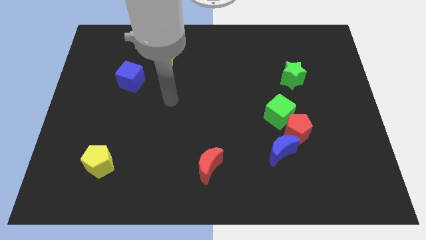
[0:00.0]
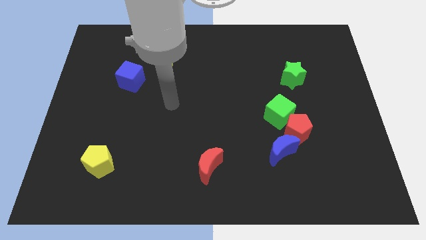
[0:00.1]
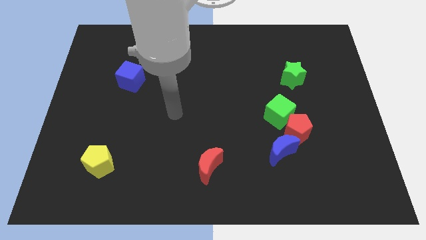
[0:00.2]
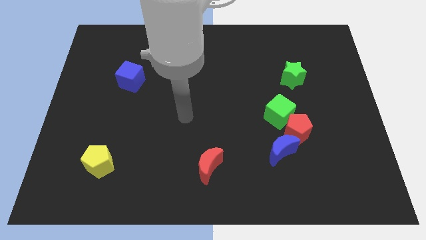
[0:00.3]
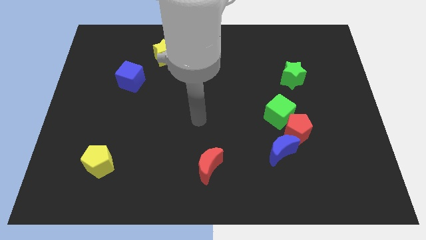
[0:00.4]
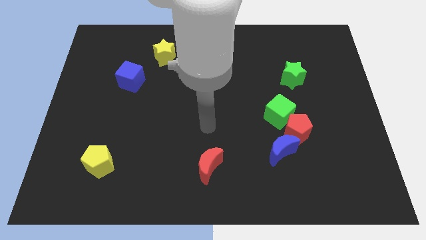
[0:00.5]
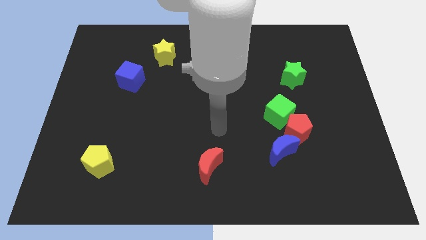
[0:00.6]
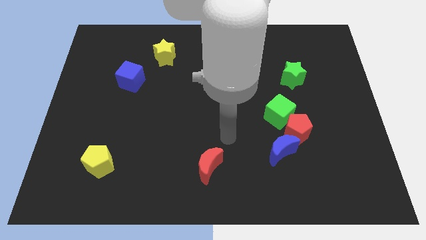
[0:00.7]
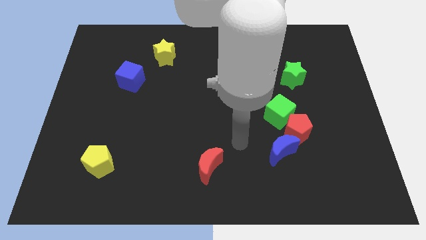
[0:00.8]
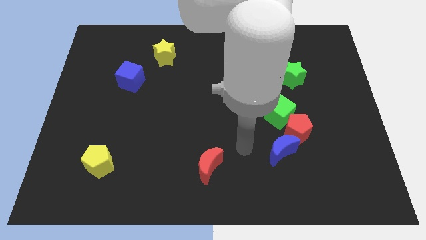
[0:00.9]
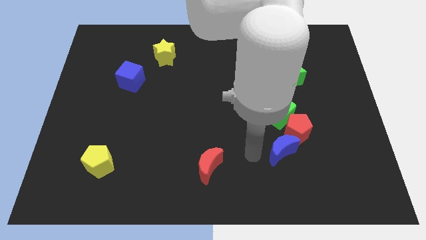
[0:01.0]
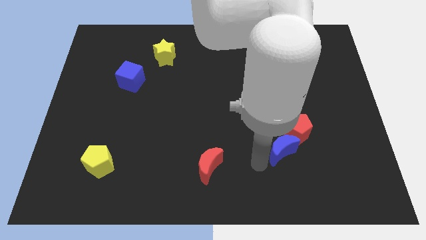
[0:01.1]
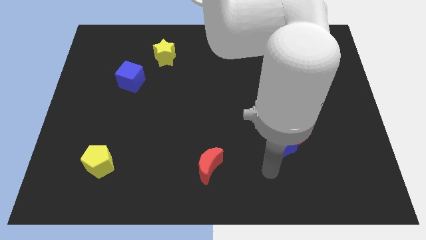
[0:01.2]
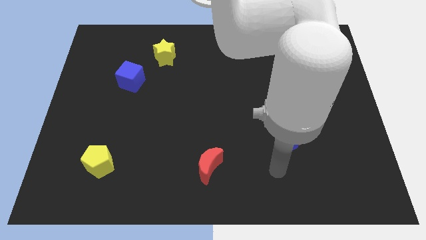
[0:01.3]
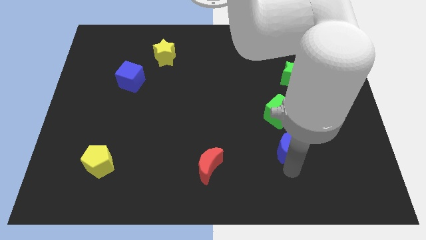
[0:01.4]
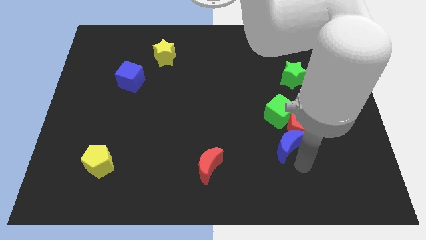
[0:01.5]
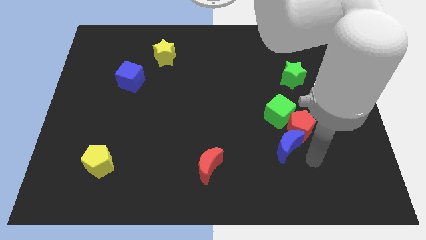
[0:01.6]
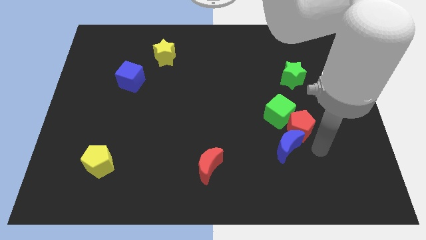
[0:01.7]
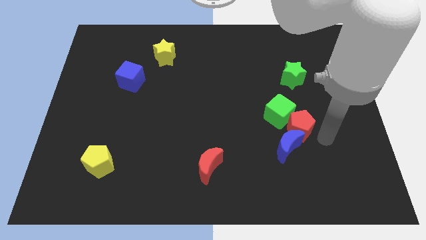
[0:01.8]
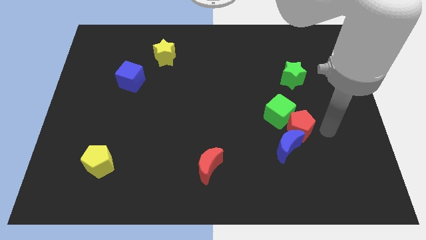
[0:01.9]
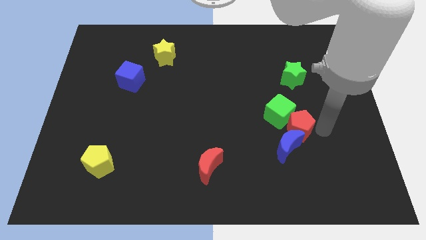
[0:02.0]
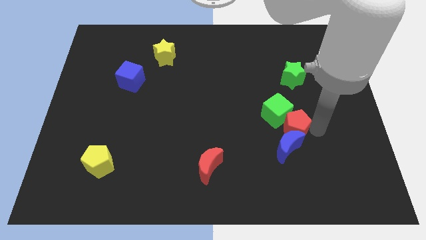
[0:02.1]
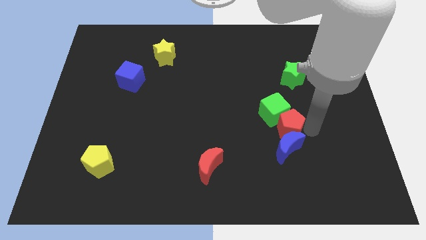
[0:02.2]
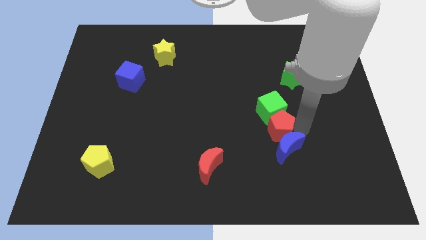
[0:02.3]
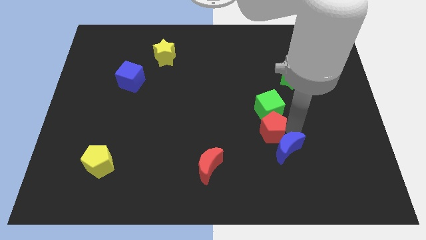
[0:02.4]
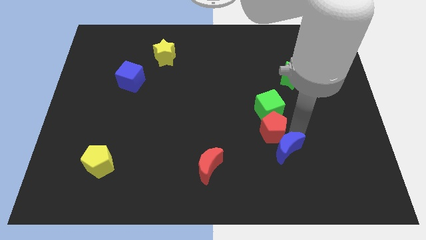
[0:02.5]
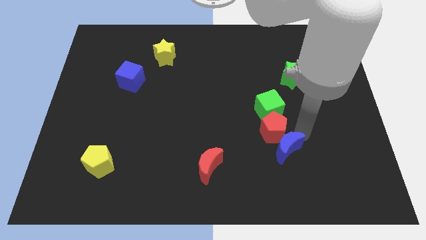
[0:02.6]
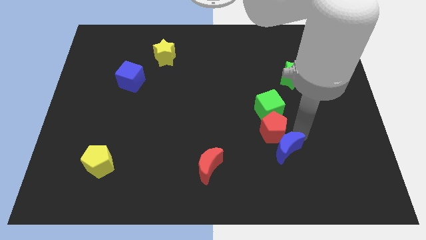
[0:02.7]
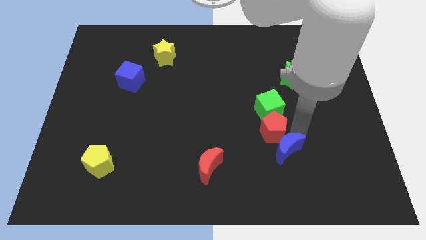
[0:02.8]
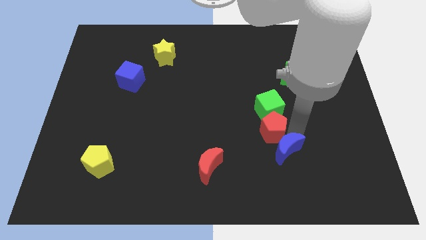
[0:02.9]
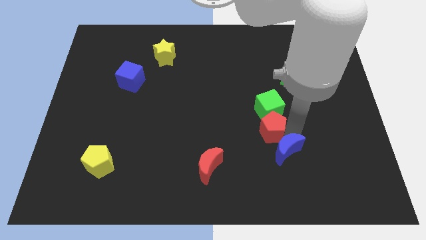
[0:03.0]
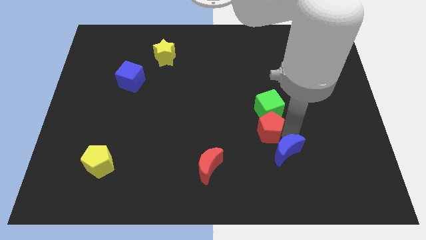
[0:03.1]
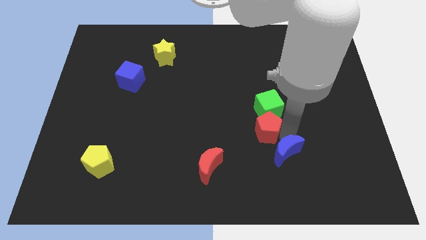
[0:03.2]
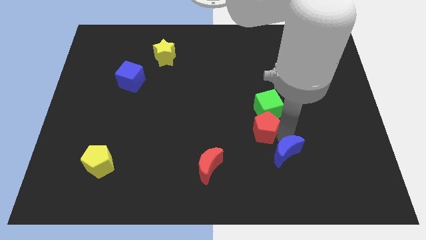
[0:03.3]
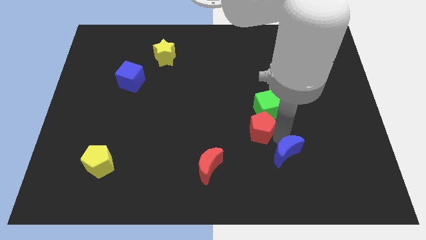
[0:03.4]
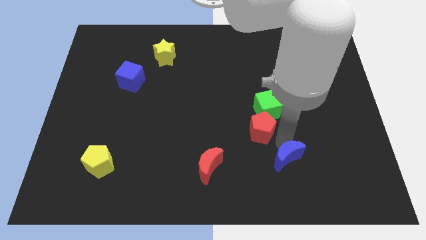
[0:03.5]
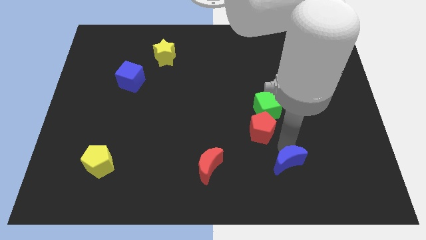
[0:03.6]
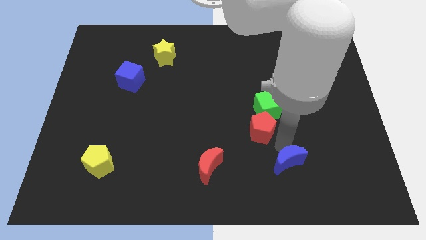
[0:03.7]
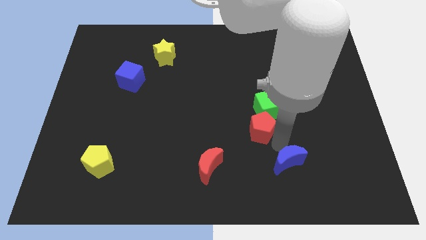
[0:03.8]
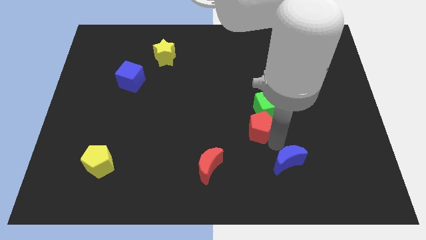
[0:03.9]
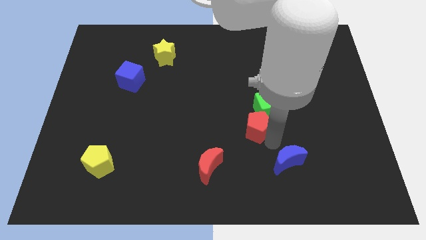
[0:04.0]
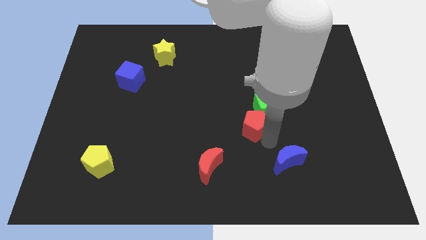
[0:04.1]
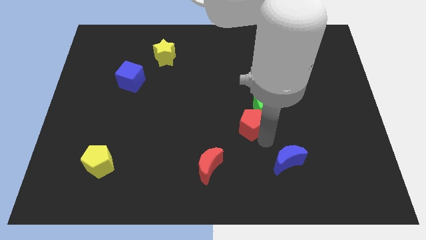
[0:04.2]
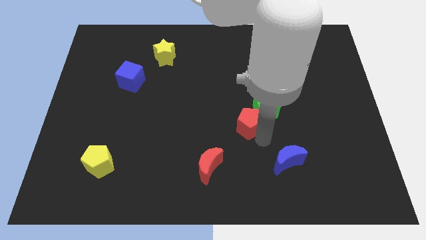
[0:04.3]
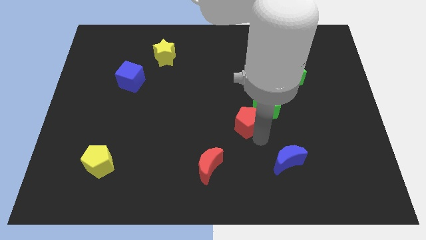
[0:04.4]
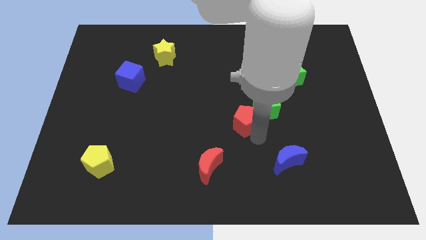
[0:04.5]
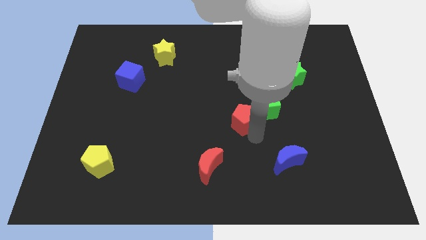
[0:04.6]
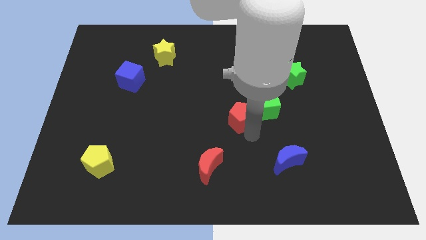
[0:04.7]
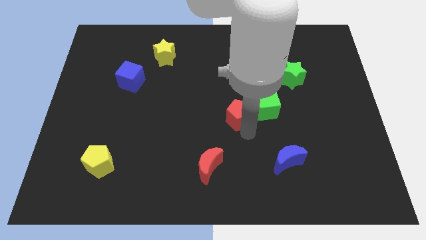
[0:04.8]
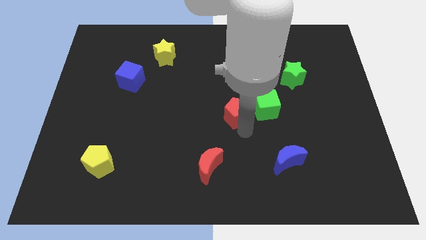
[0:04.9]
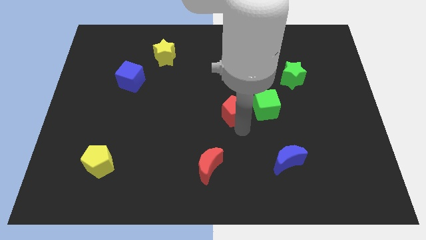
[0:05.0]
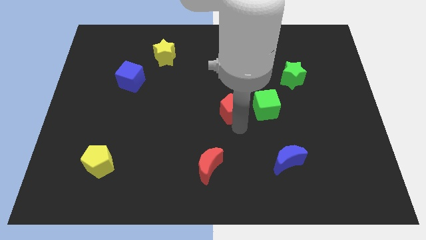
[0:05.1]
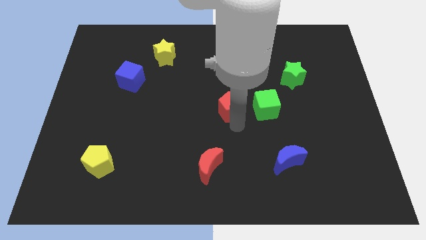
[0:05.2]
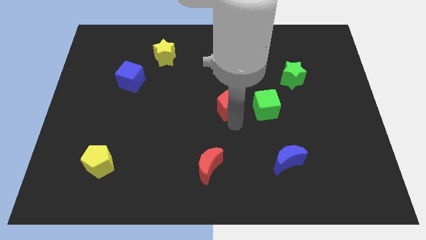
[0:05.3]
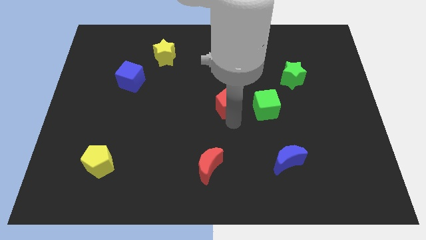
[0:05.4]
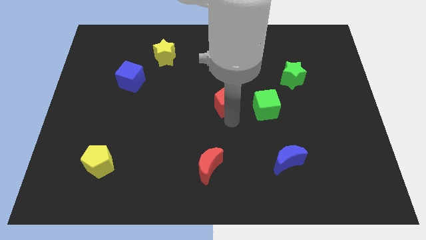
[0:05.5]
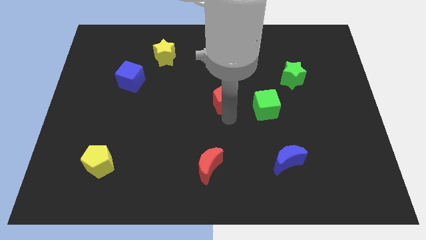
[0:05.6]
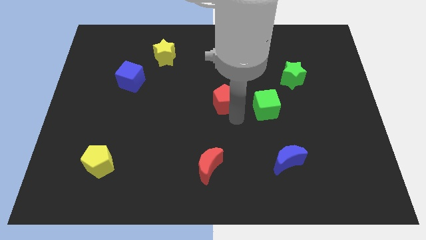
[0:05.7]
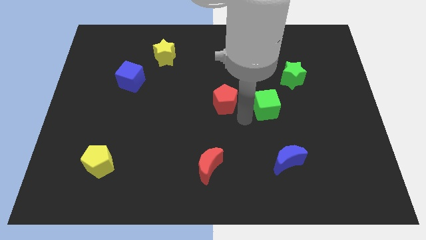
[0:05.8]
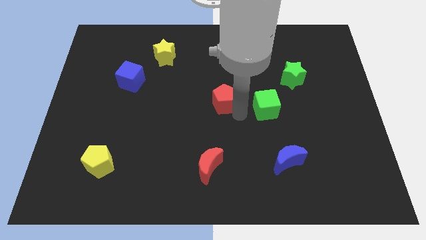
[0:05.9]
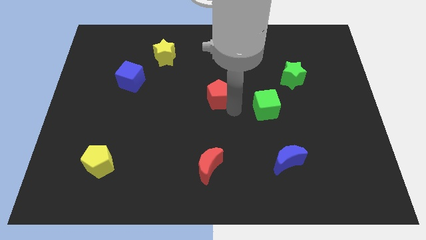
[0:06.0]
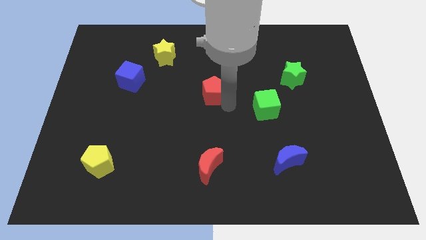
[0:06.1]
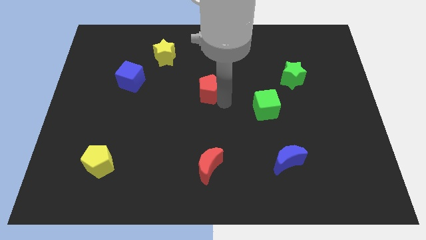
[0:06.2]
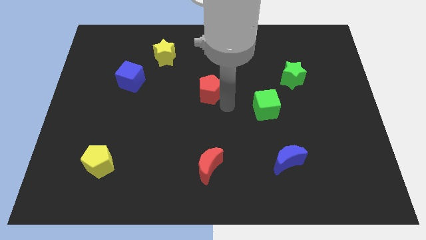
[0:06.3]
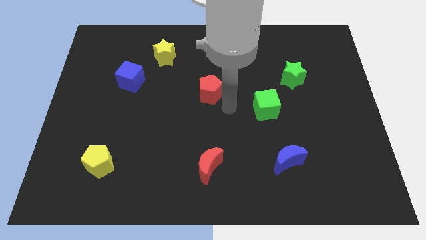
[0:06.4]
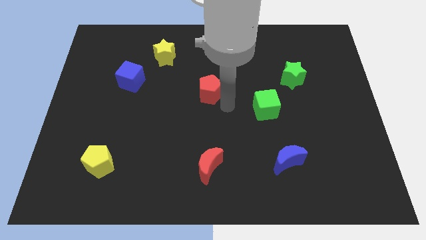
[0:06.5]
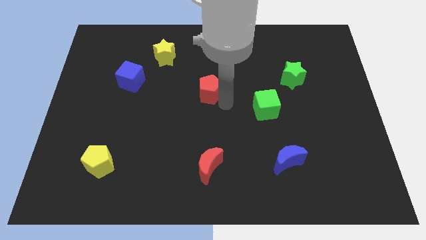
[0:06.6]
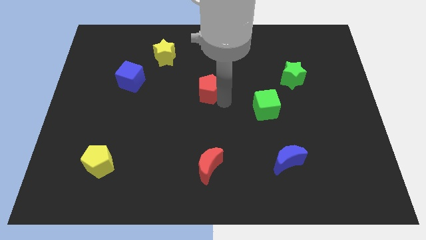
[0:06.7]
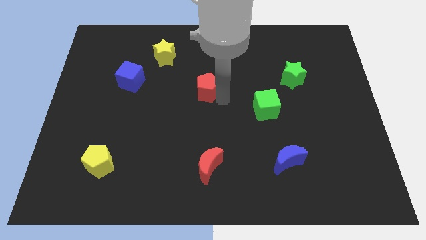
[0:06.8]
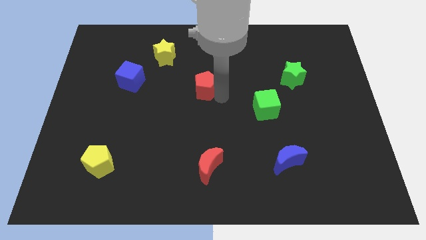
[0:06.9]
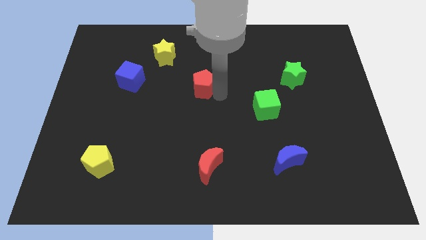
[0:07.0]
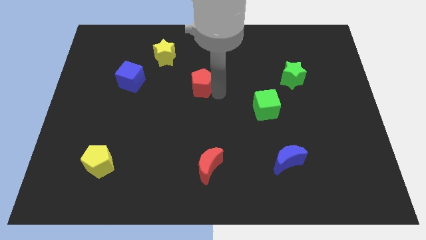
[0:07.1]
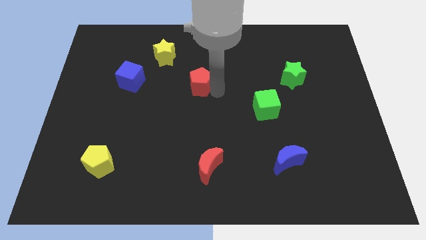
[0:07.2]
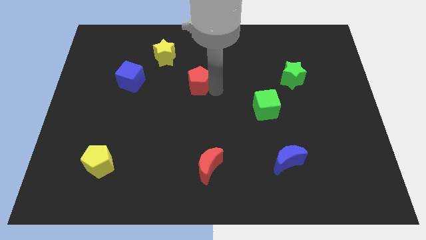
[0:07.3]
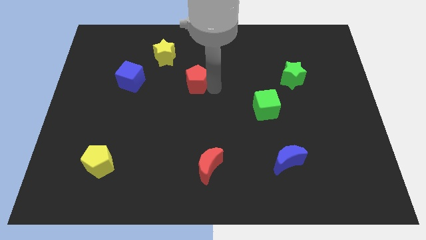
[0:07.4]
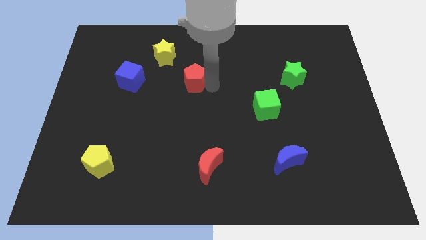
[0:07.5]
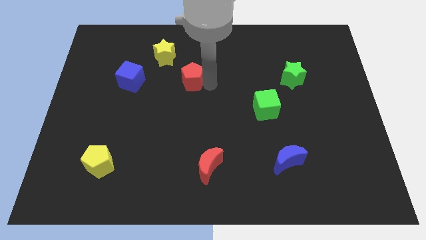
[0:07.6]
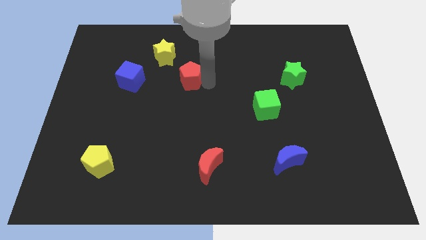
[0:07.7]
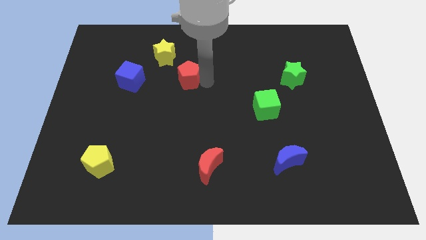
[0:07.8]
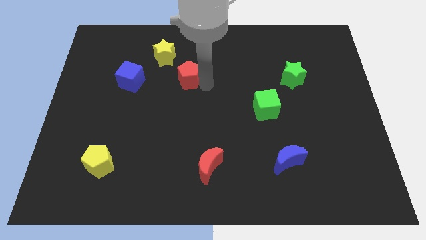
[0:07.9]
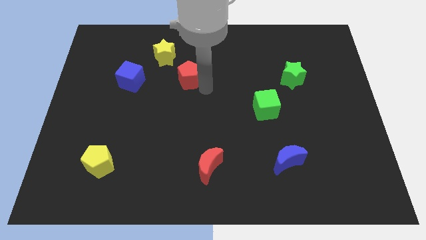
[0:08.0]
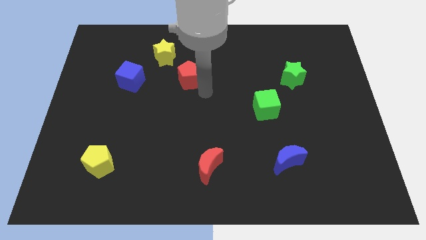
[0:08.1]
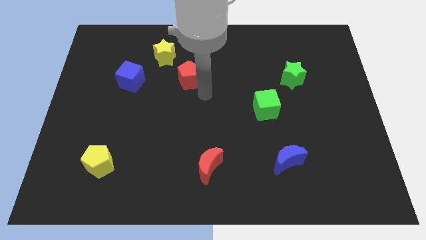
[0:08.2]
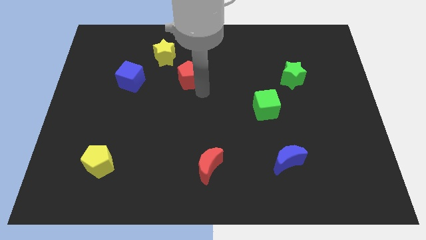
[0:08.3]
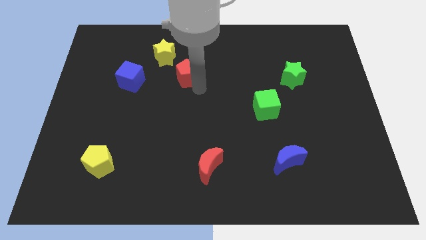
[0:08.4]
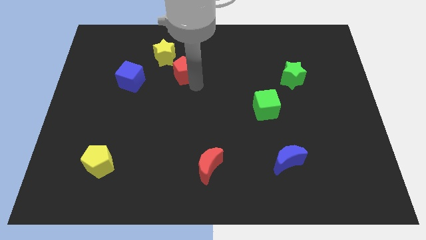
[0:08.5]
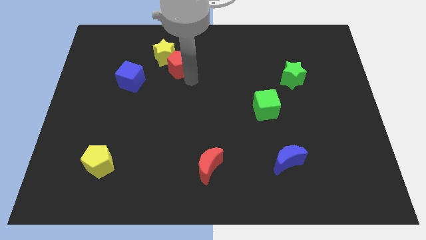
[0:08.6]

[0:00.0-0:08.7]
push the red pentagon towards the yellow star
